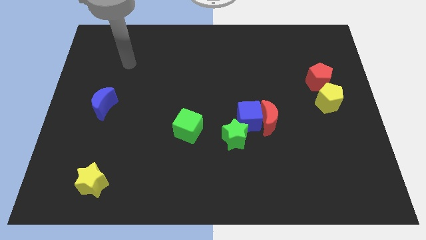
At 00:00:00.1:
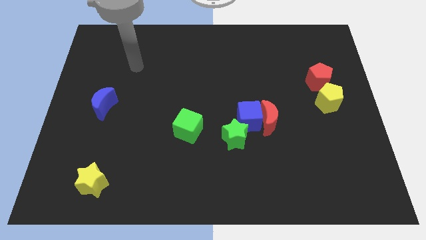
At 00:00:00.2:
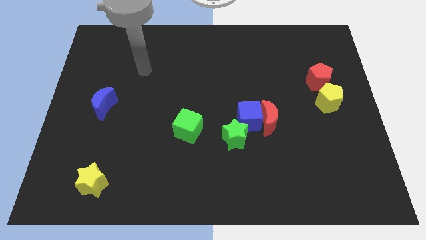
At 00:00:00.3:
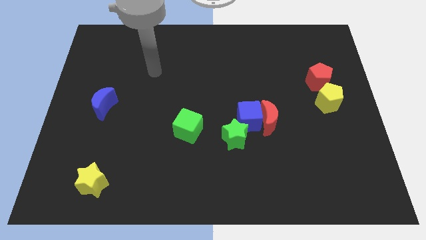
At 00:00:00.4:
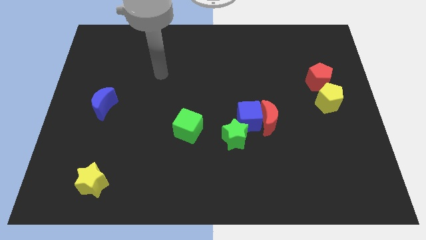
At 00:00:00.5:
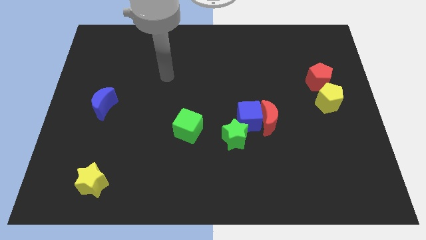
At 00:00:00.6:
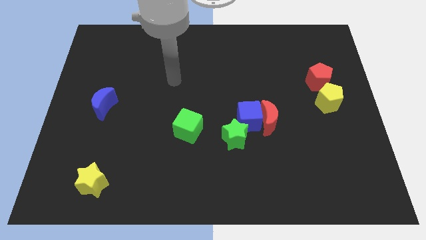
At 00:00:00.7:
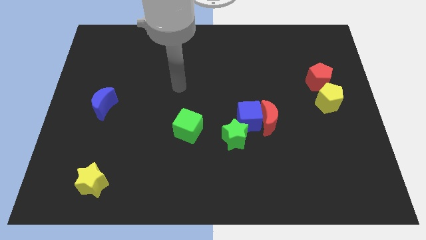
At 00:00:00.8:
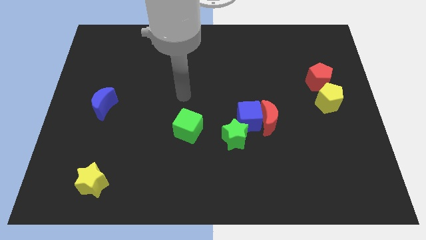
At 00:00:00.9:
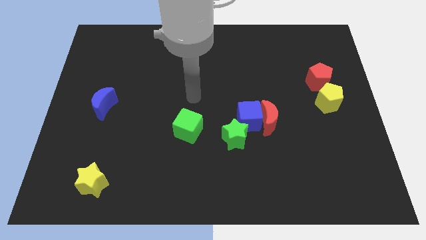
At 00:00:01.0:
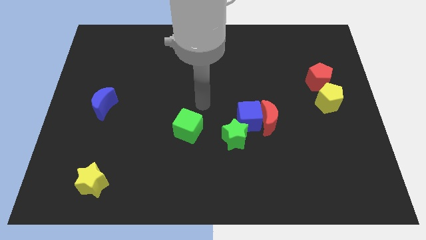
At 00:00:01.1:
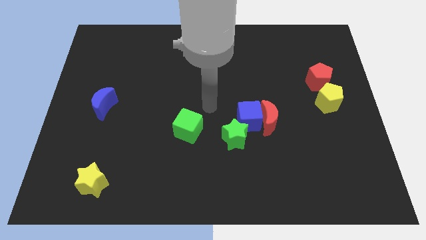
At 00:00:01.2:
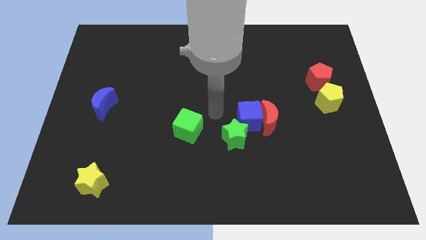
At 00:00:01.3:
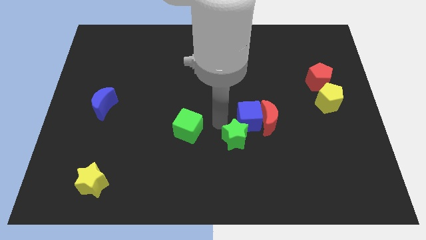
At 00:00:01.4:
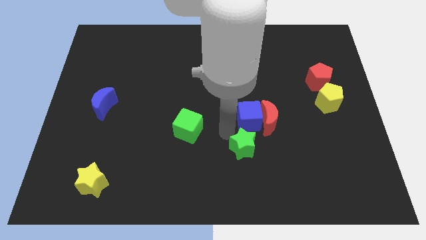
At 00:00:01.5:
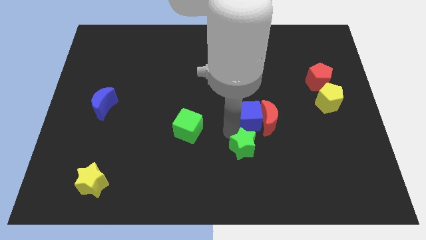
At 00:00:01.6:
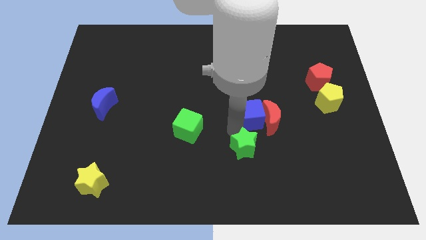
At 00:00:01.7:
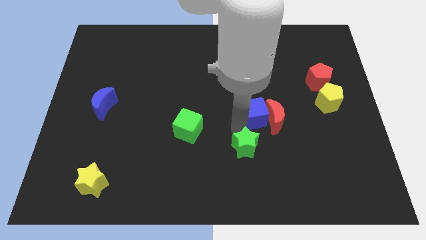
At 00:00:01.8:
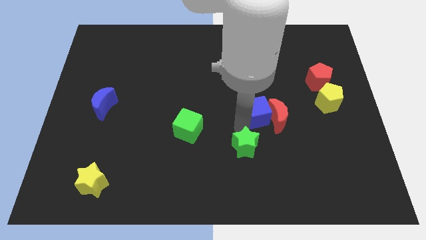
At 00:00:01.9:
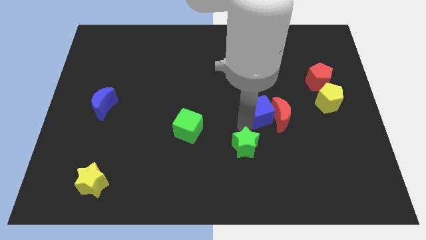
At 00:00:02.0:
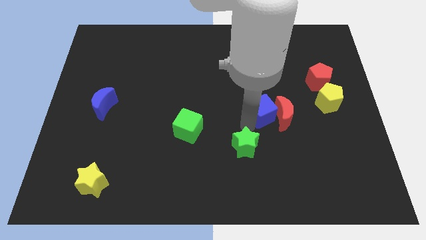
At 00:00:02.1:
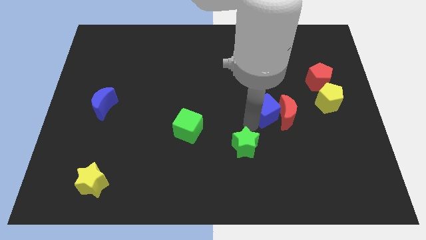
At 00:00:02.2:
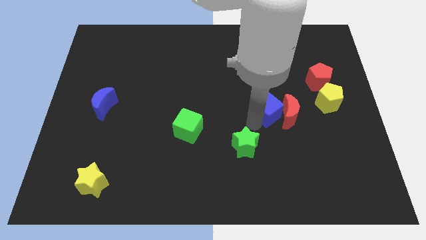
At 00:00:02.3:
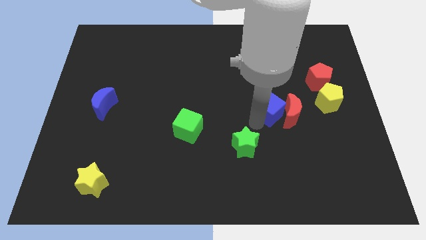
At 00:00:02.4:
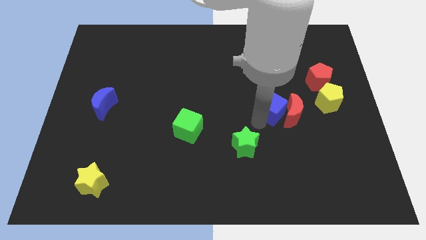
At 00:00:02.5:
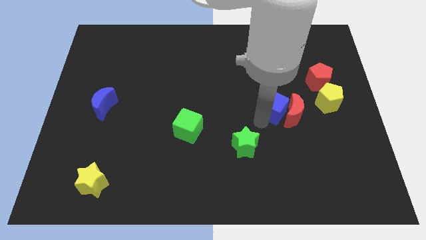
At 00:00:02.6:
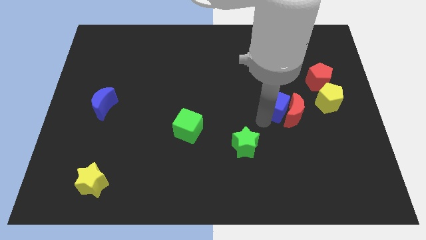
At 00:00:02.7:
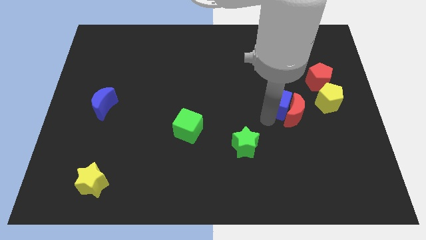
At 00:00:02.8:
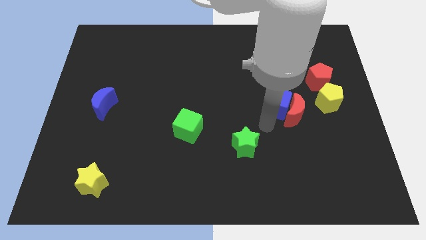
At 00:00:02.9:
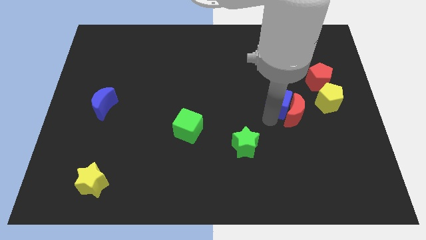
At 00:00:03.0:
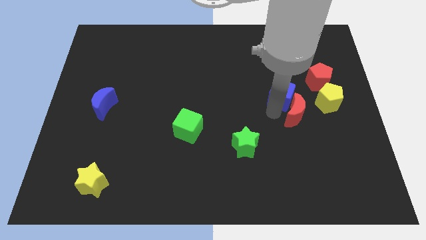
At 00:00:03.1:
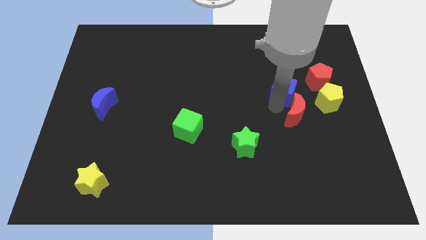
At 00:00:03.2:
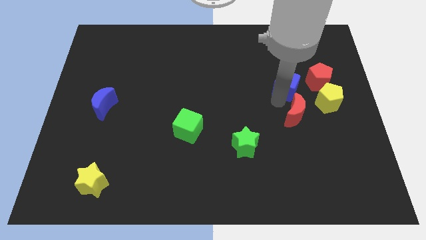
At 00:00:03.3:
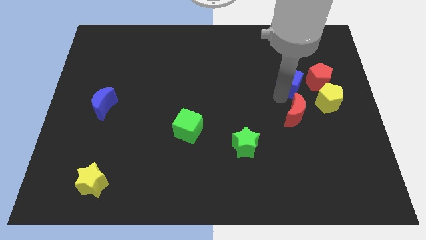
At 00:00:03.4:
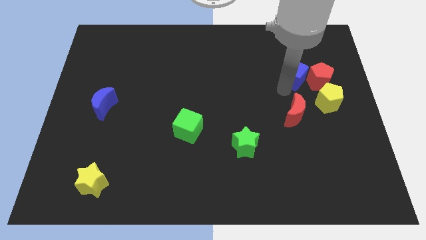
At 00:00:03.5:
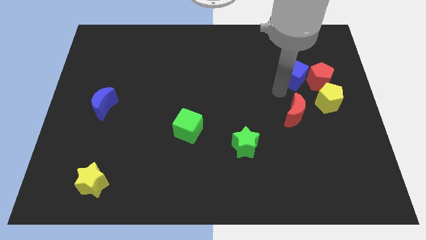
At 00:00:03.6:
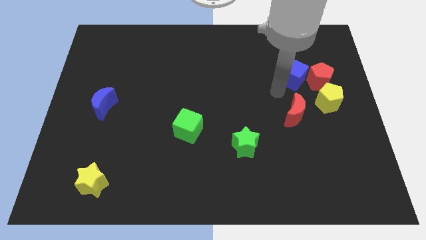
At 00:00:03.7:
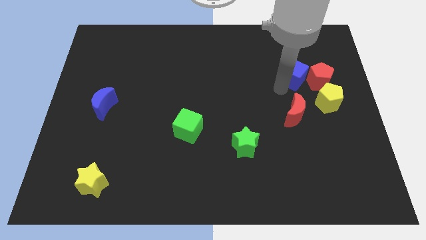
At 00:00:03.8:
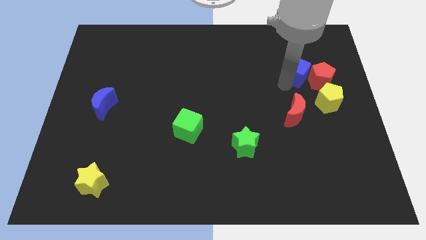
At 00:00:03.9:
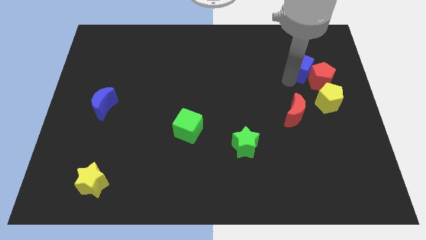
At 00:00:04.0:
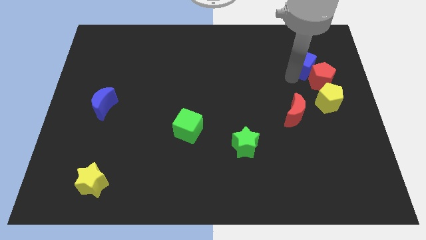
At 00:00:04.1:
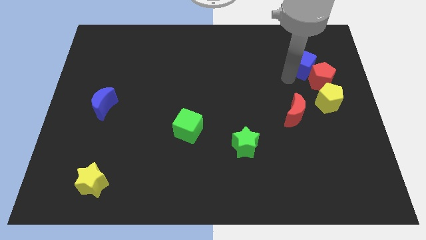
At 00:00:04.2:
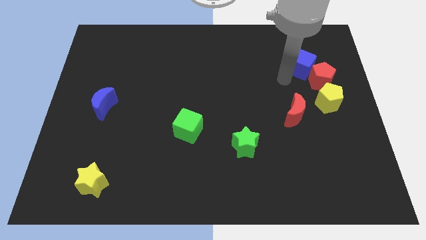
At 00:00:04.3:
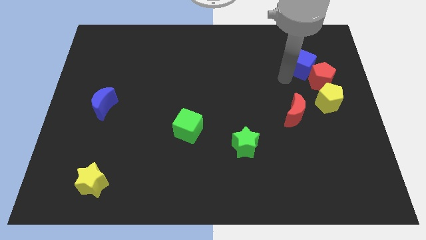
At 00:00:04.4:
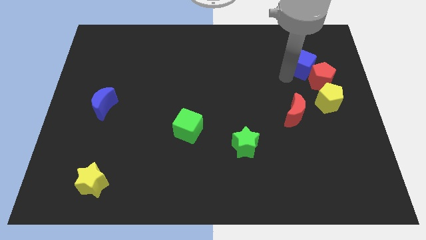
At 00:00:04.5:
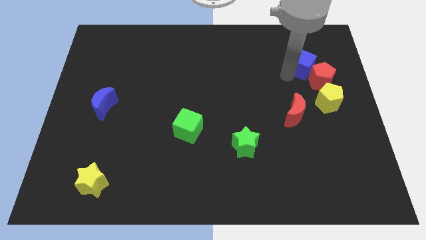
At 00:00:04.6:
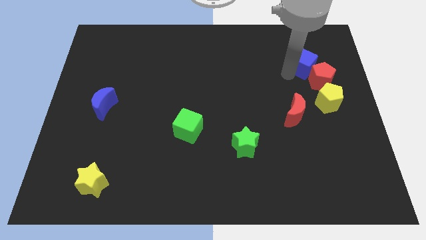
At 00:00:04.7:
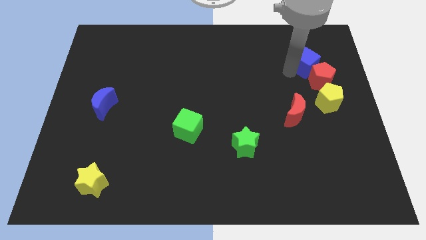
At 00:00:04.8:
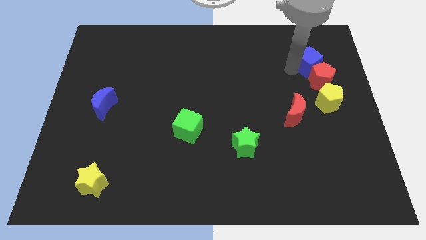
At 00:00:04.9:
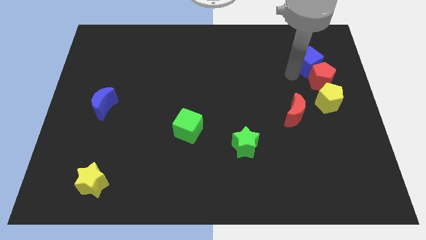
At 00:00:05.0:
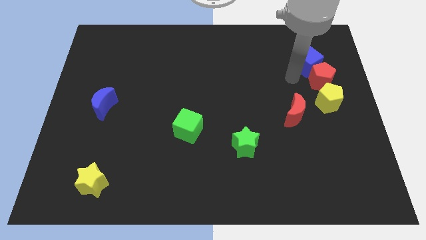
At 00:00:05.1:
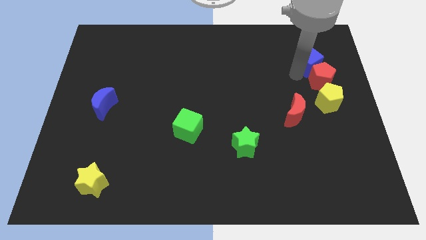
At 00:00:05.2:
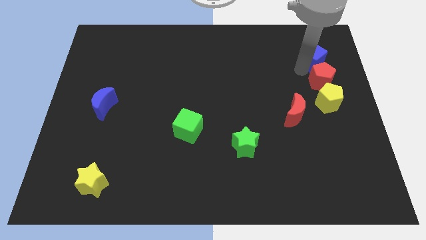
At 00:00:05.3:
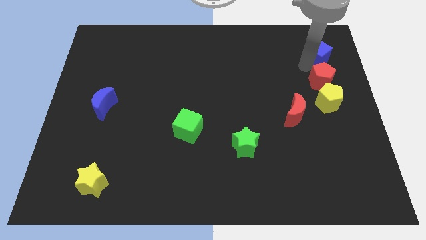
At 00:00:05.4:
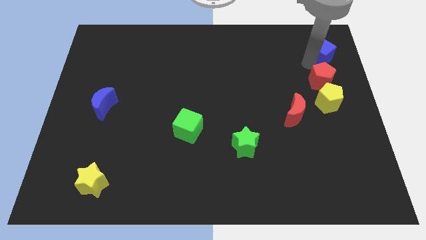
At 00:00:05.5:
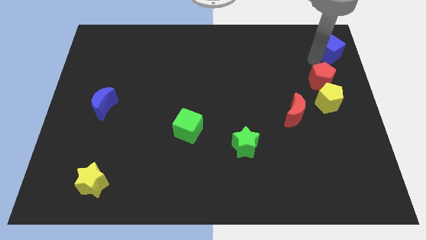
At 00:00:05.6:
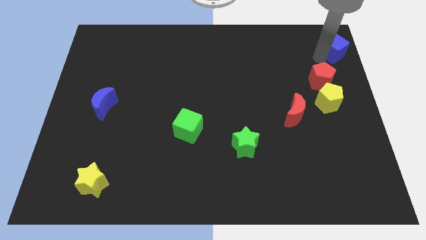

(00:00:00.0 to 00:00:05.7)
move the blue cube to the top right of the board

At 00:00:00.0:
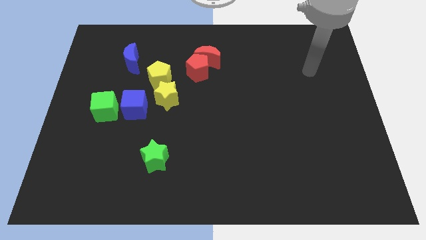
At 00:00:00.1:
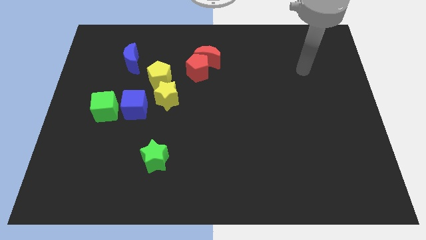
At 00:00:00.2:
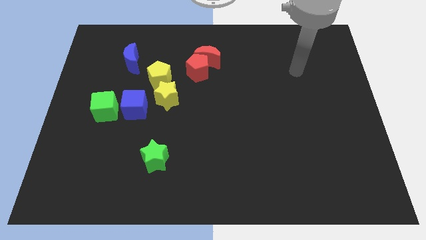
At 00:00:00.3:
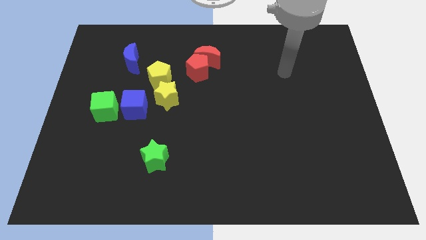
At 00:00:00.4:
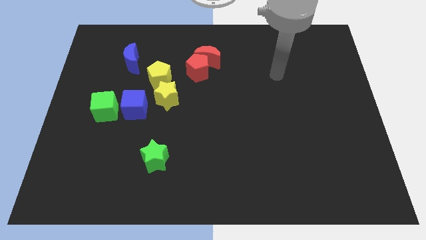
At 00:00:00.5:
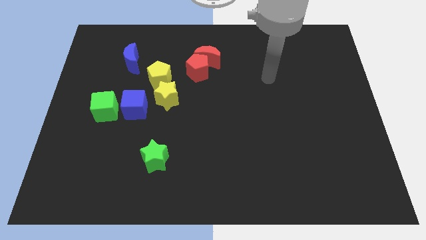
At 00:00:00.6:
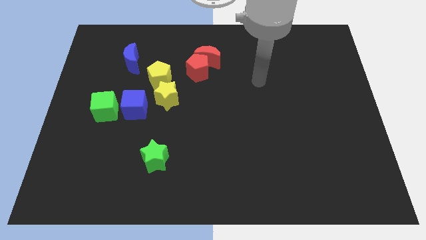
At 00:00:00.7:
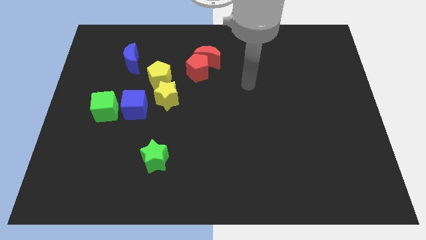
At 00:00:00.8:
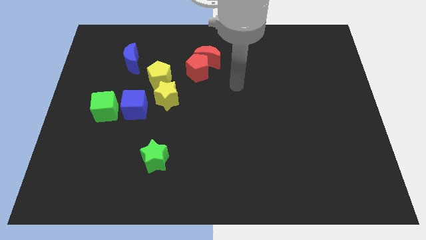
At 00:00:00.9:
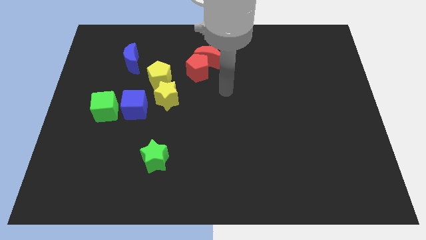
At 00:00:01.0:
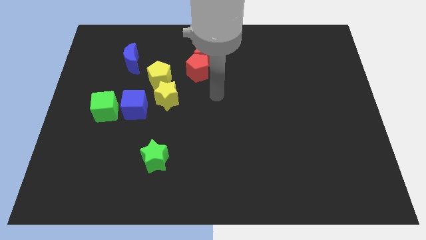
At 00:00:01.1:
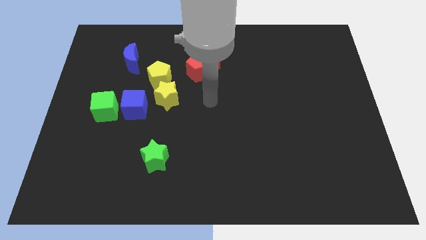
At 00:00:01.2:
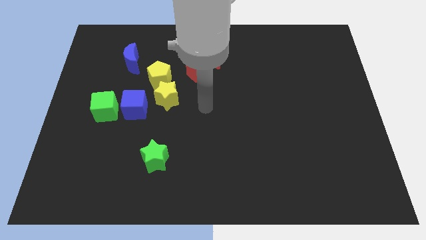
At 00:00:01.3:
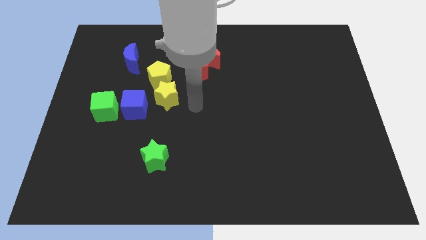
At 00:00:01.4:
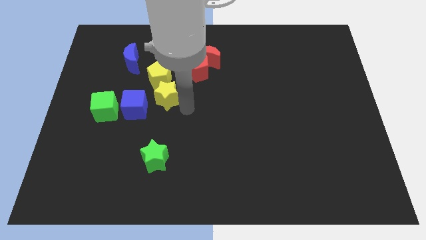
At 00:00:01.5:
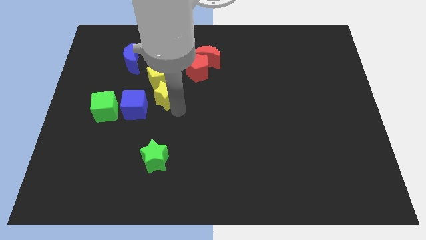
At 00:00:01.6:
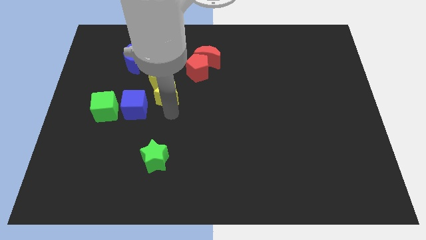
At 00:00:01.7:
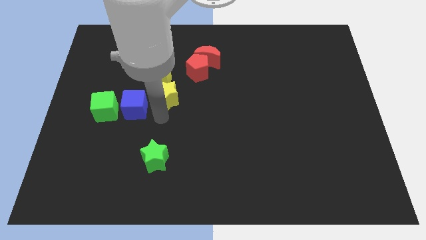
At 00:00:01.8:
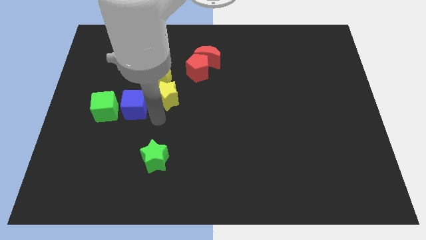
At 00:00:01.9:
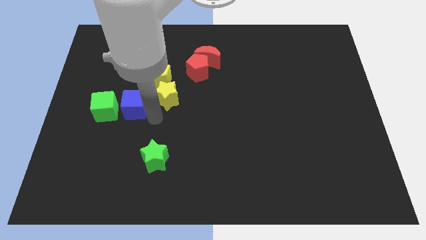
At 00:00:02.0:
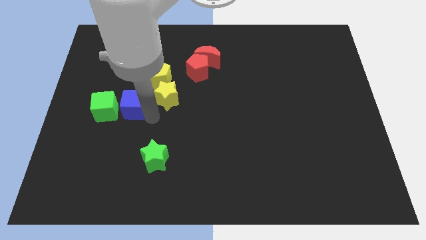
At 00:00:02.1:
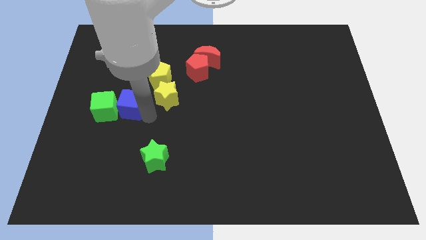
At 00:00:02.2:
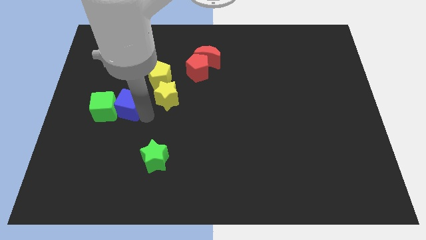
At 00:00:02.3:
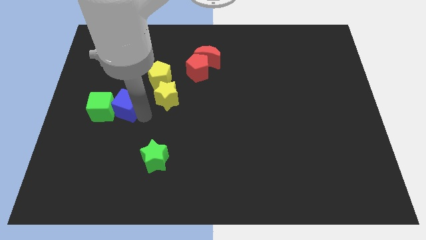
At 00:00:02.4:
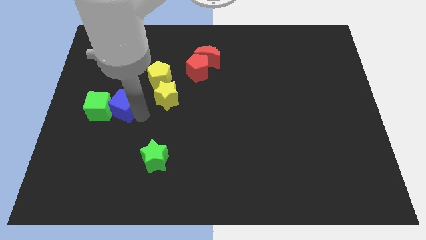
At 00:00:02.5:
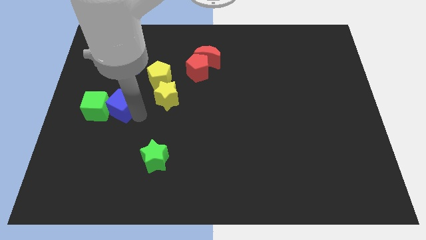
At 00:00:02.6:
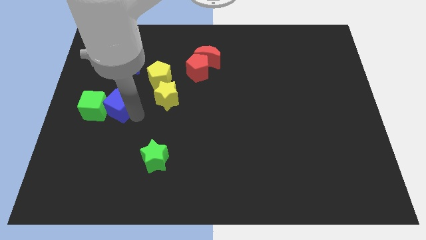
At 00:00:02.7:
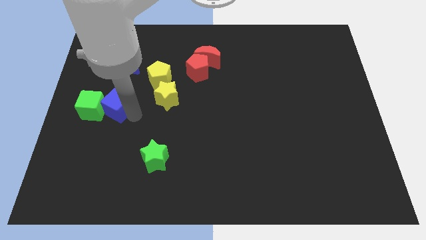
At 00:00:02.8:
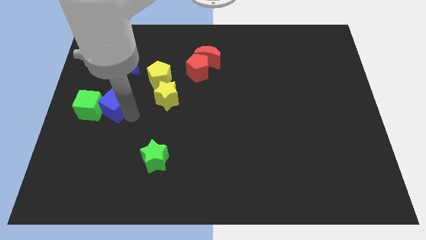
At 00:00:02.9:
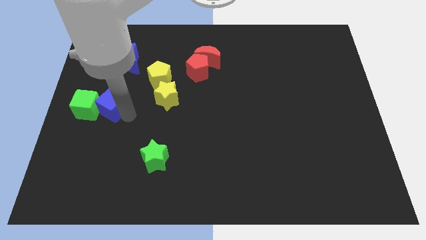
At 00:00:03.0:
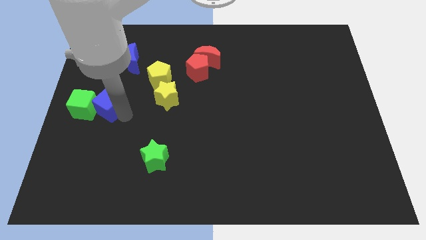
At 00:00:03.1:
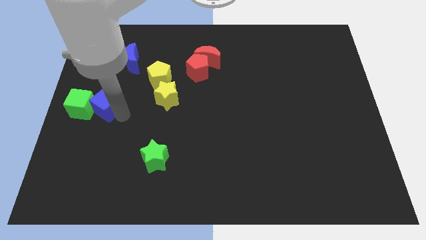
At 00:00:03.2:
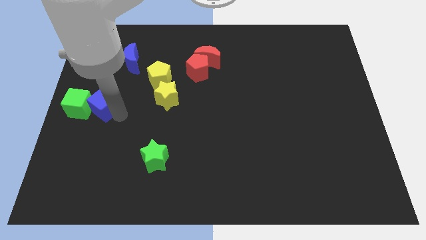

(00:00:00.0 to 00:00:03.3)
put the blue cube to the left side of the board
